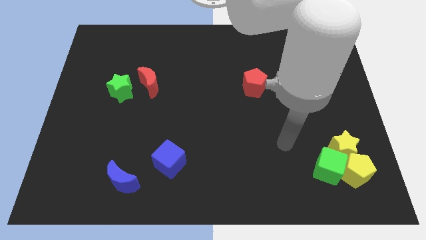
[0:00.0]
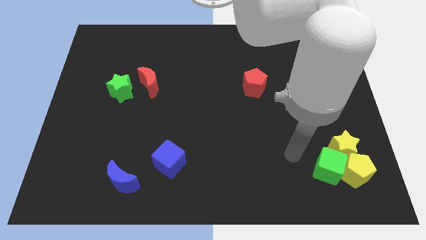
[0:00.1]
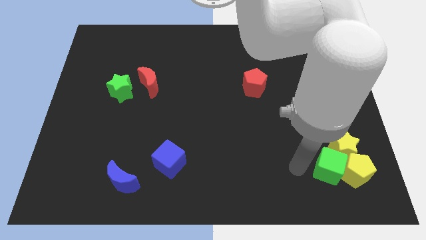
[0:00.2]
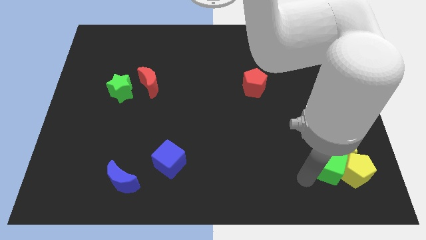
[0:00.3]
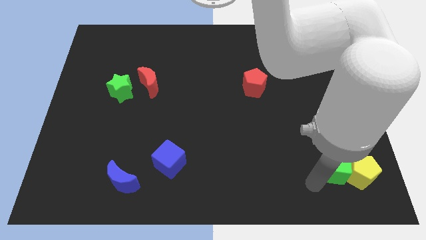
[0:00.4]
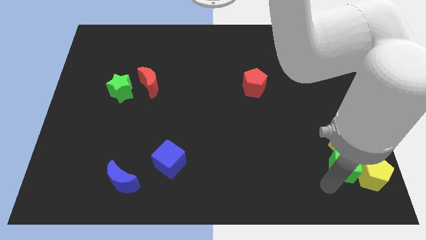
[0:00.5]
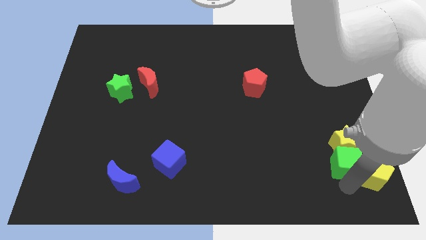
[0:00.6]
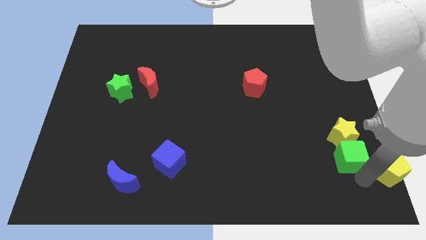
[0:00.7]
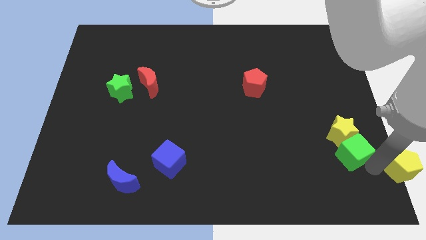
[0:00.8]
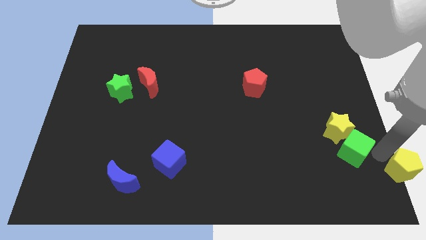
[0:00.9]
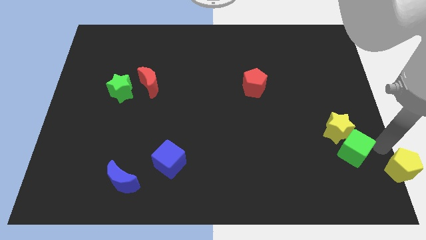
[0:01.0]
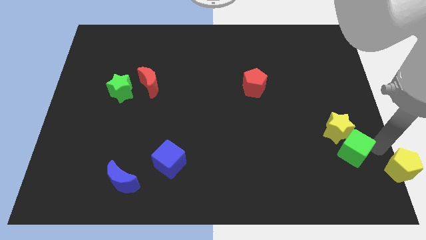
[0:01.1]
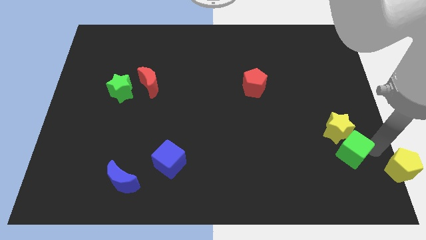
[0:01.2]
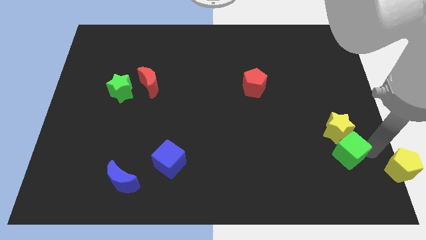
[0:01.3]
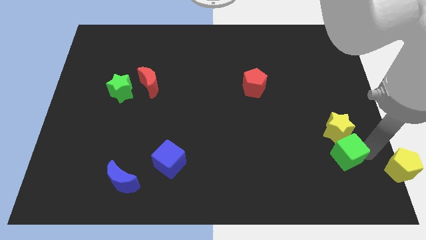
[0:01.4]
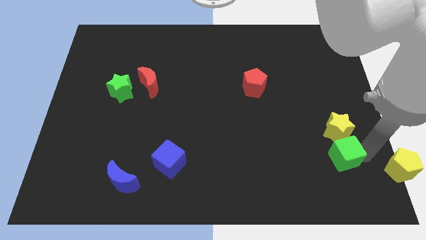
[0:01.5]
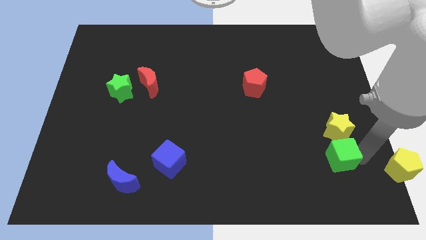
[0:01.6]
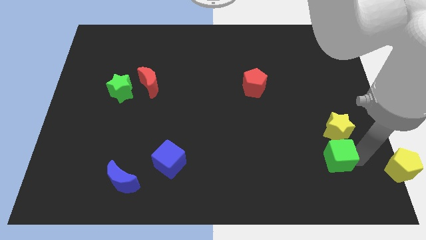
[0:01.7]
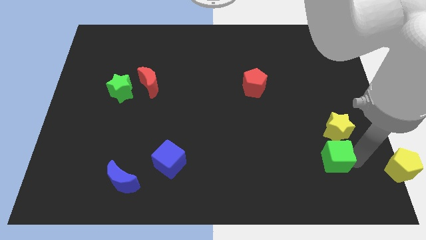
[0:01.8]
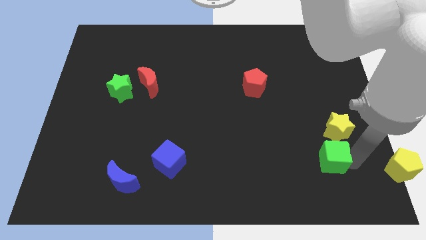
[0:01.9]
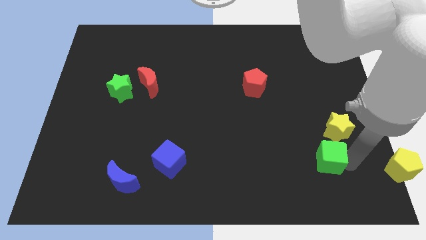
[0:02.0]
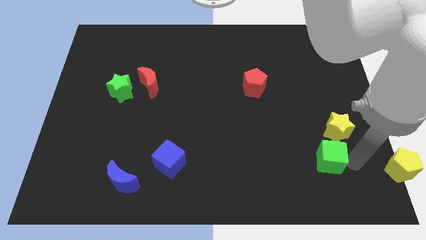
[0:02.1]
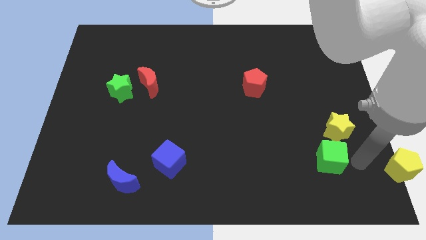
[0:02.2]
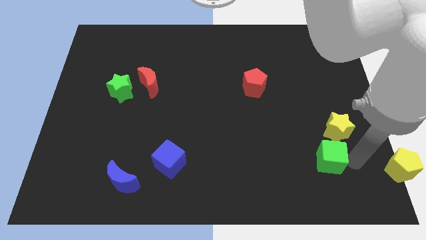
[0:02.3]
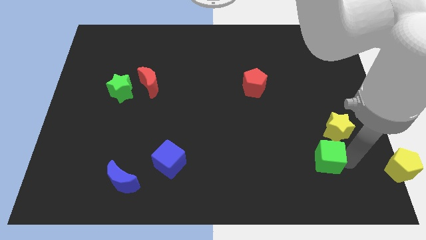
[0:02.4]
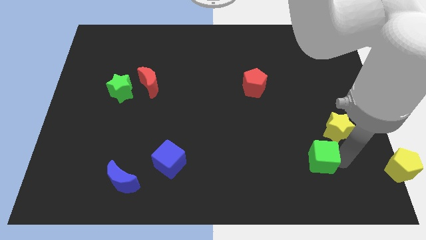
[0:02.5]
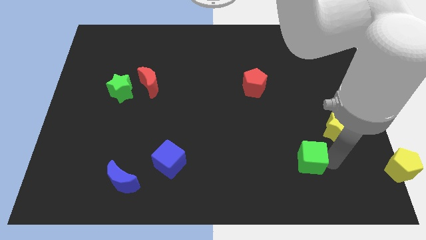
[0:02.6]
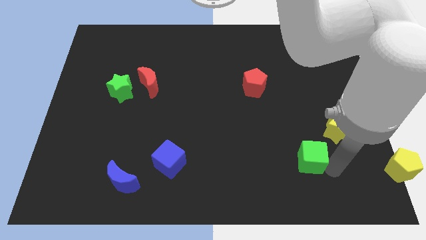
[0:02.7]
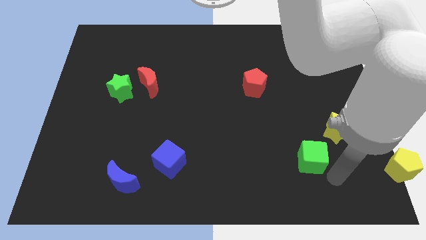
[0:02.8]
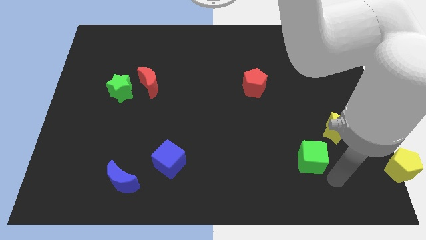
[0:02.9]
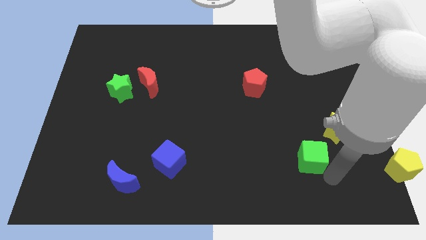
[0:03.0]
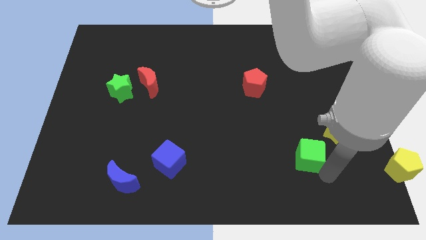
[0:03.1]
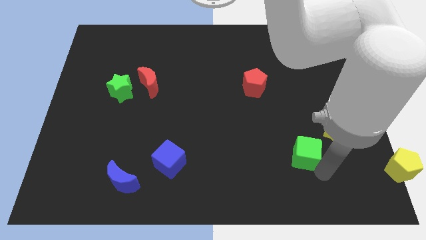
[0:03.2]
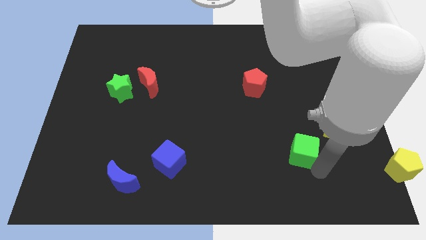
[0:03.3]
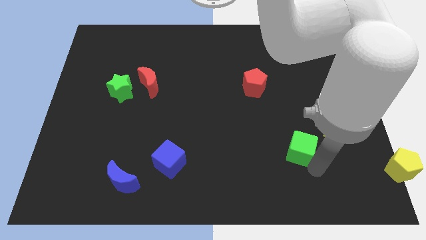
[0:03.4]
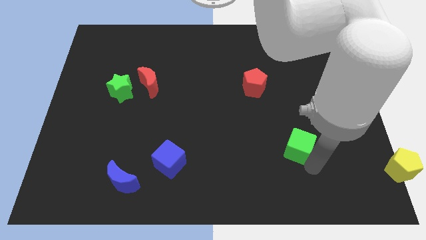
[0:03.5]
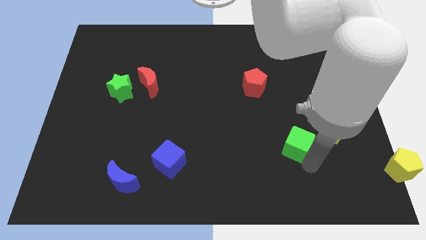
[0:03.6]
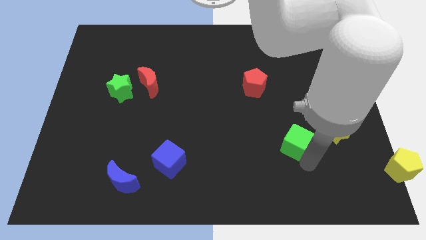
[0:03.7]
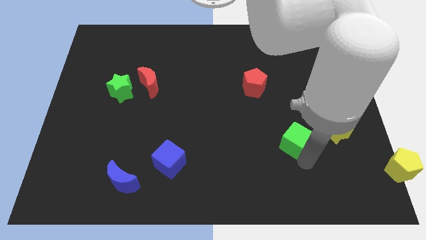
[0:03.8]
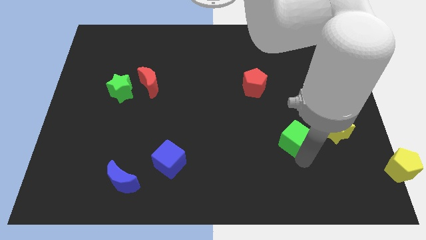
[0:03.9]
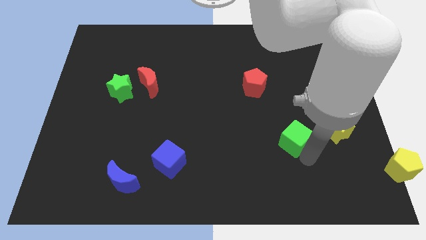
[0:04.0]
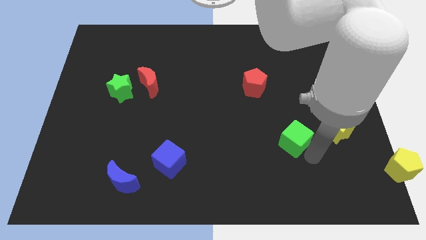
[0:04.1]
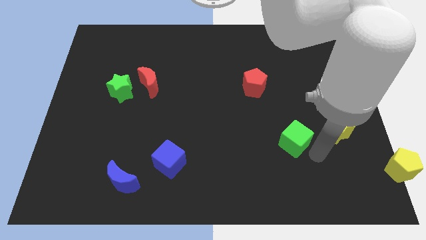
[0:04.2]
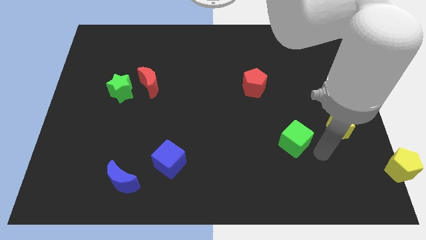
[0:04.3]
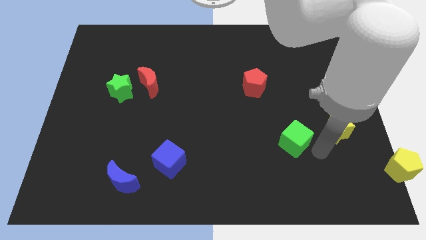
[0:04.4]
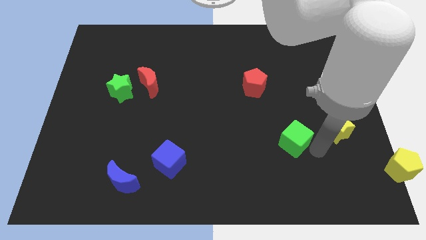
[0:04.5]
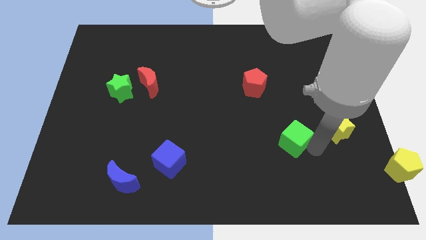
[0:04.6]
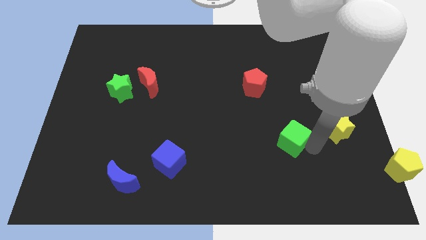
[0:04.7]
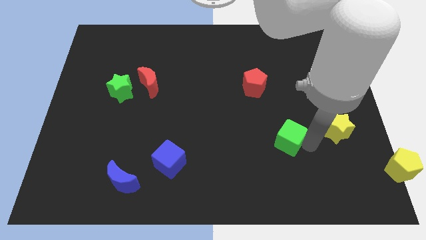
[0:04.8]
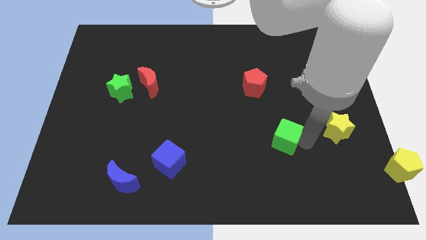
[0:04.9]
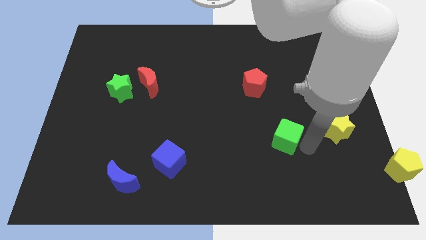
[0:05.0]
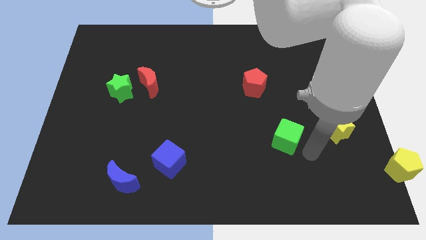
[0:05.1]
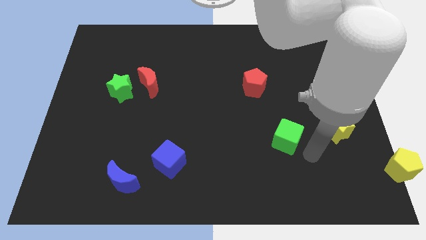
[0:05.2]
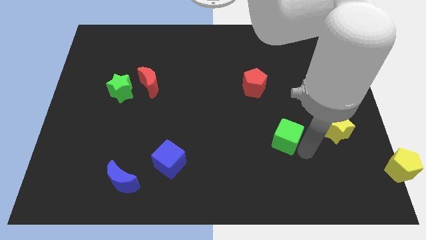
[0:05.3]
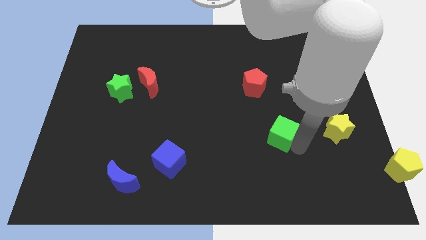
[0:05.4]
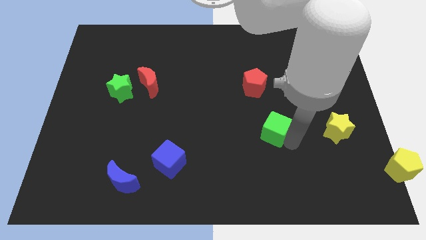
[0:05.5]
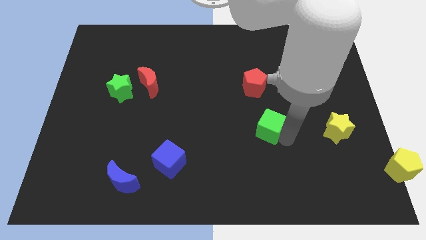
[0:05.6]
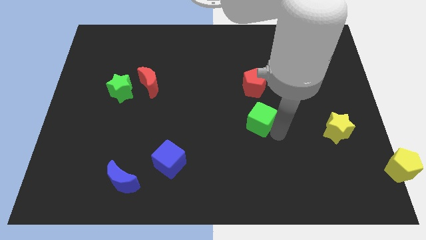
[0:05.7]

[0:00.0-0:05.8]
put the green cube to the center
